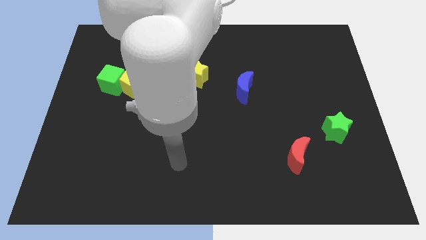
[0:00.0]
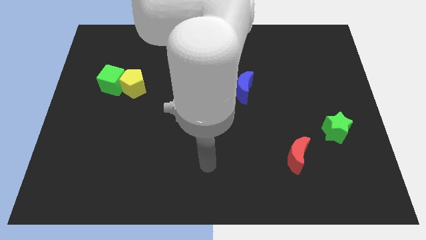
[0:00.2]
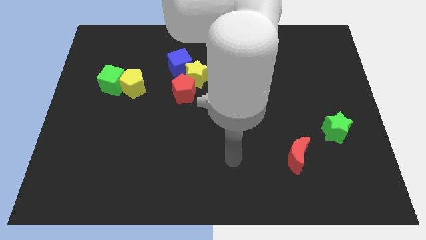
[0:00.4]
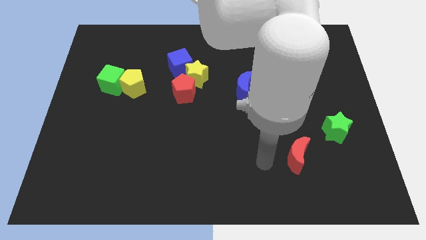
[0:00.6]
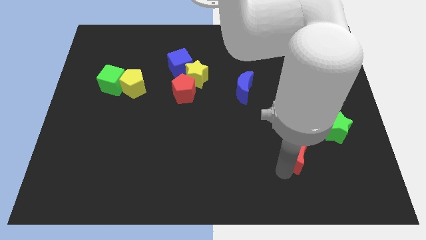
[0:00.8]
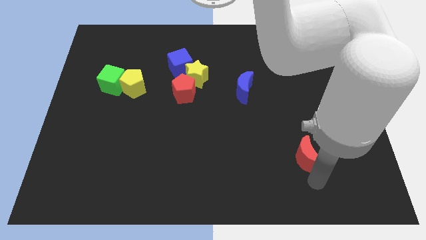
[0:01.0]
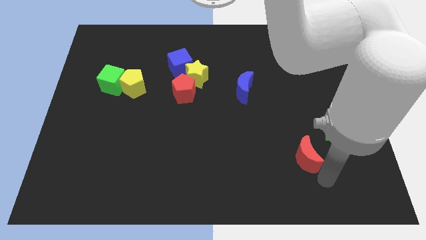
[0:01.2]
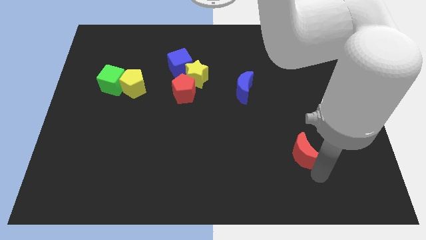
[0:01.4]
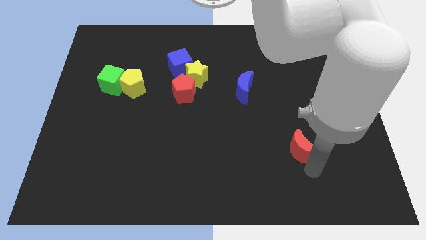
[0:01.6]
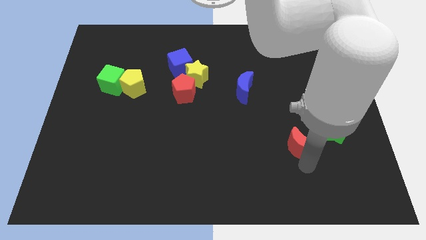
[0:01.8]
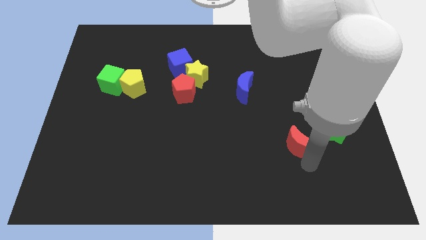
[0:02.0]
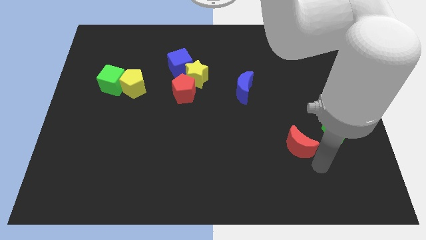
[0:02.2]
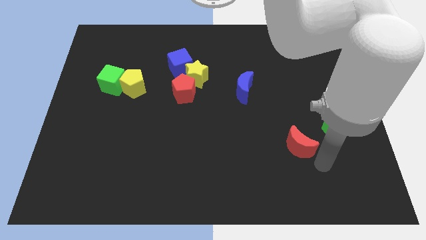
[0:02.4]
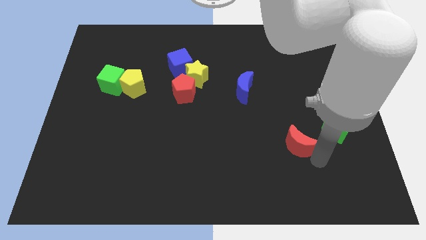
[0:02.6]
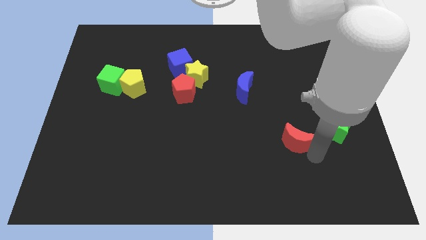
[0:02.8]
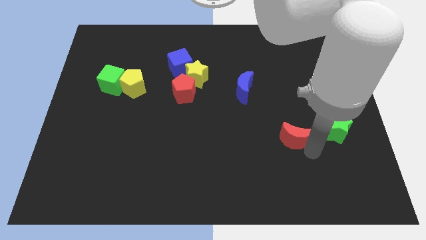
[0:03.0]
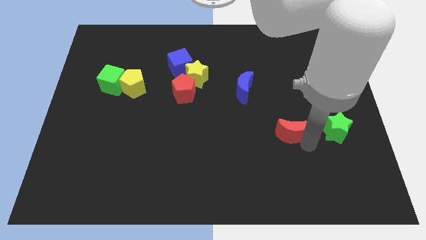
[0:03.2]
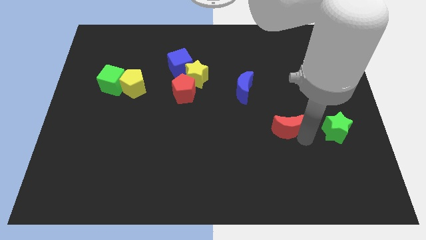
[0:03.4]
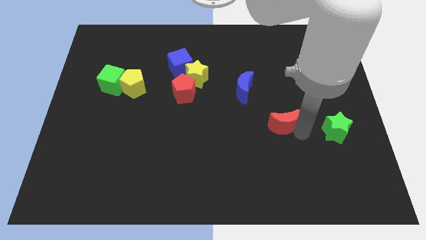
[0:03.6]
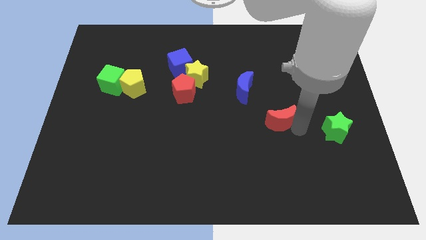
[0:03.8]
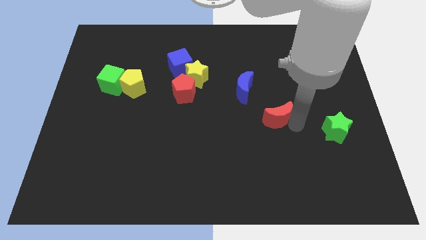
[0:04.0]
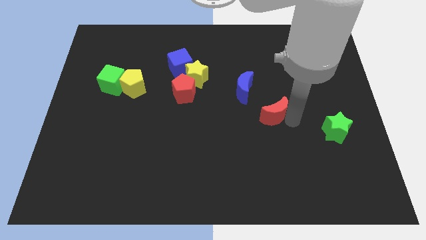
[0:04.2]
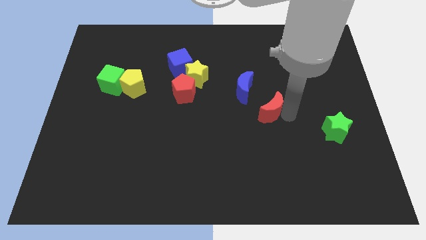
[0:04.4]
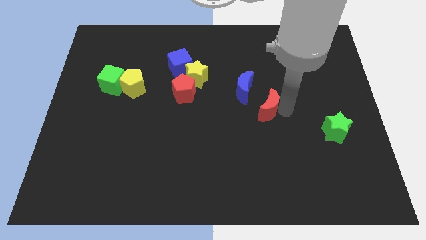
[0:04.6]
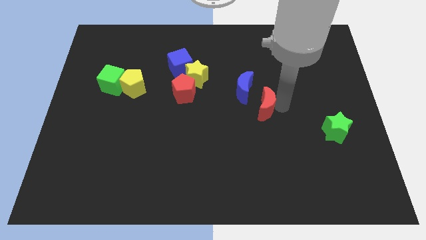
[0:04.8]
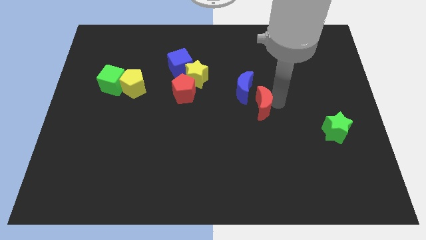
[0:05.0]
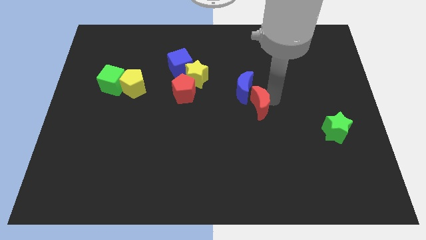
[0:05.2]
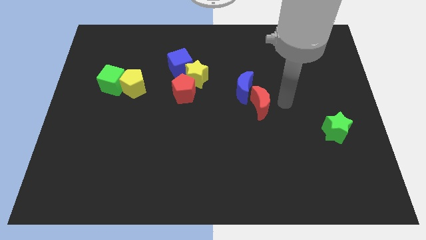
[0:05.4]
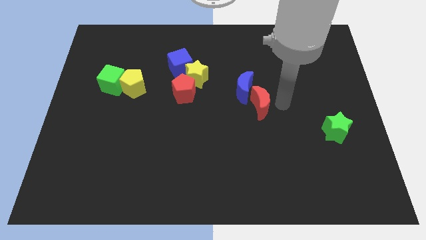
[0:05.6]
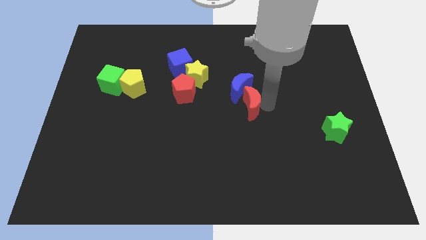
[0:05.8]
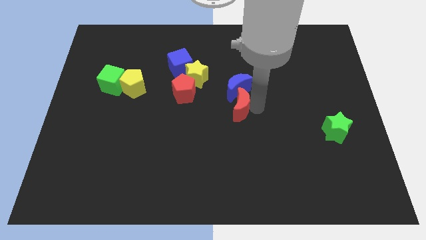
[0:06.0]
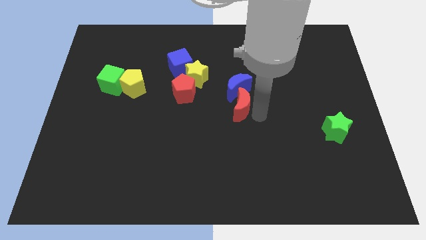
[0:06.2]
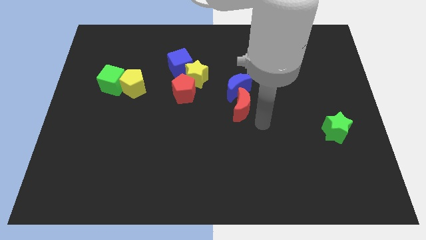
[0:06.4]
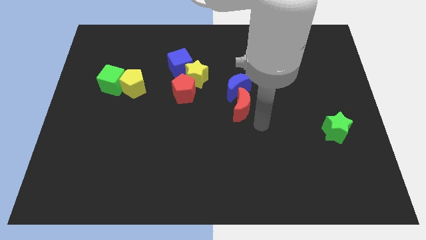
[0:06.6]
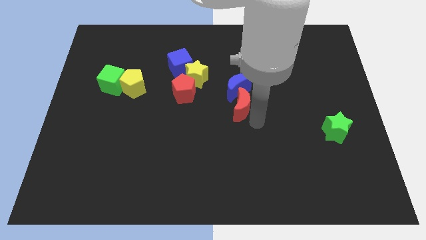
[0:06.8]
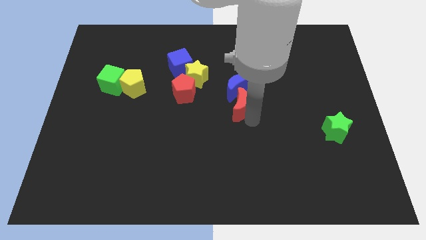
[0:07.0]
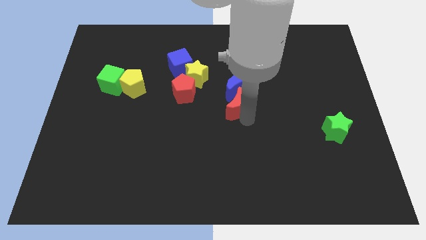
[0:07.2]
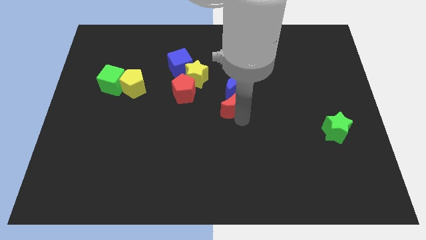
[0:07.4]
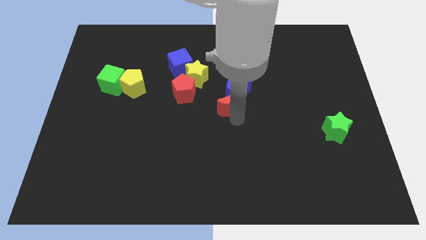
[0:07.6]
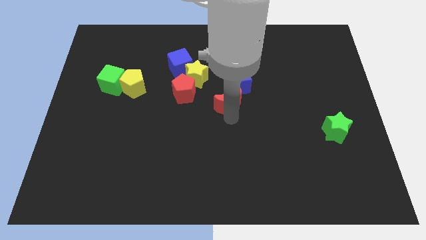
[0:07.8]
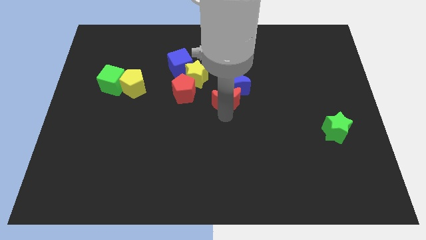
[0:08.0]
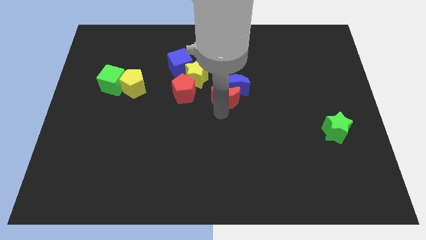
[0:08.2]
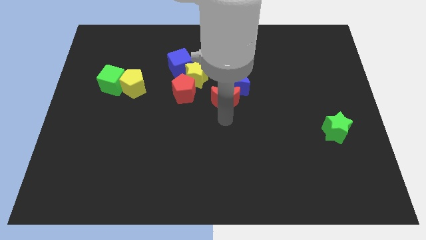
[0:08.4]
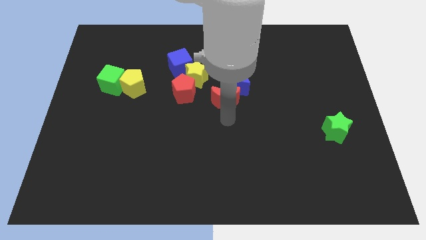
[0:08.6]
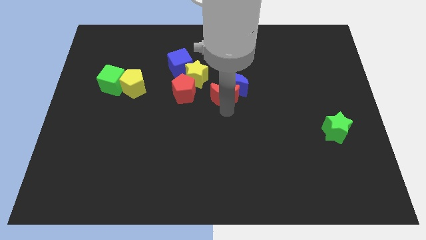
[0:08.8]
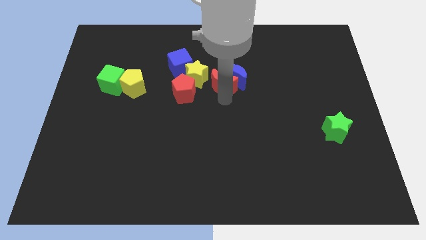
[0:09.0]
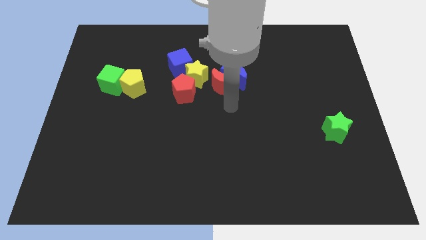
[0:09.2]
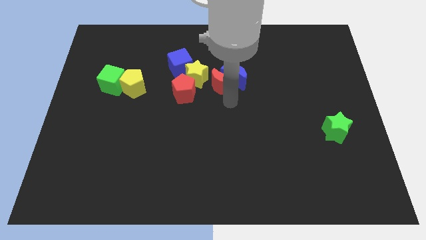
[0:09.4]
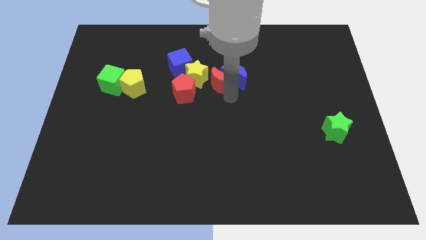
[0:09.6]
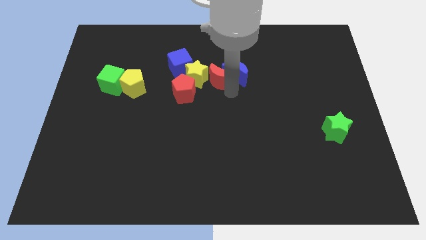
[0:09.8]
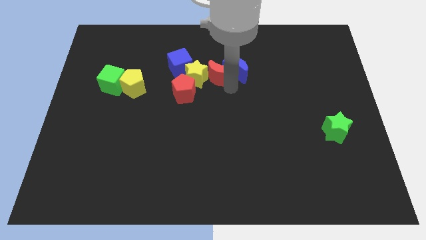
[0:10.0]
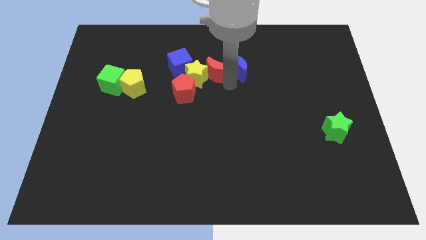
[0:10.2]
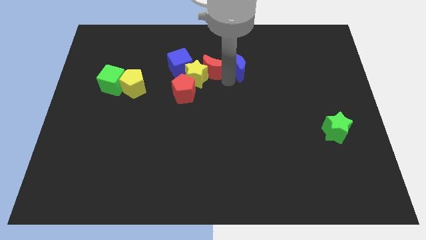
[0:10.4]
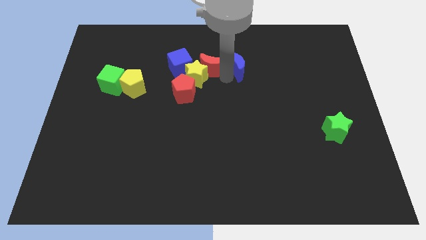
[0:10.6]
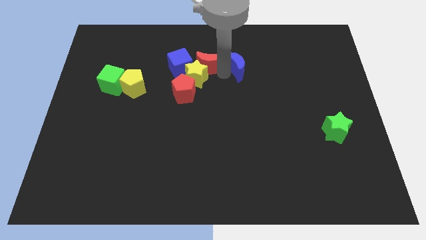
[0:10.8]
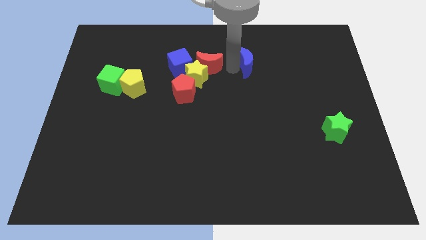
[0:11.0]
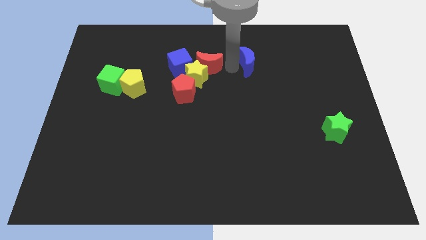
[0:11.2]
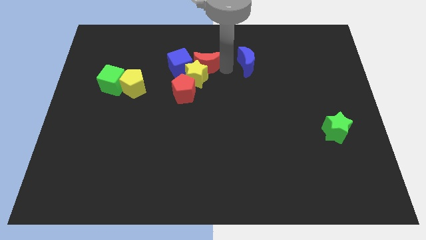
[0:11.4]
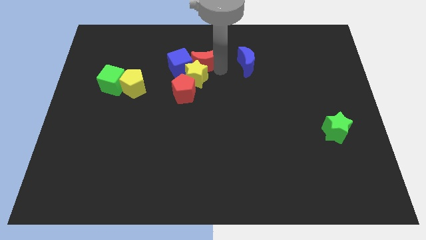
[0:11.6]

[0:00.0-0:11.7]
put the red moon next to the blue cube

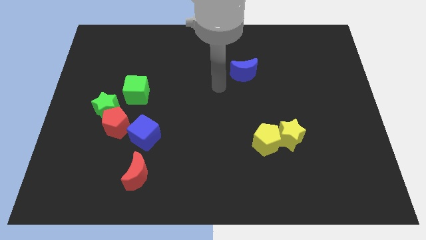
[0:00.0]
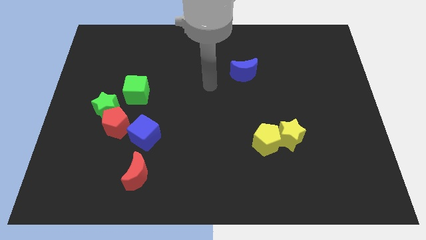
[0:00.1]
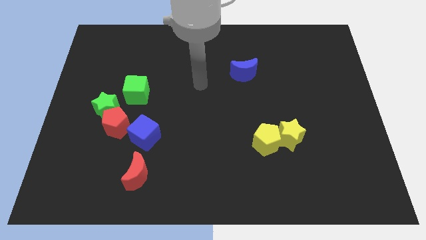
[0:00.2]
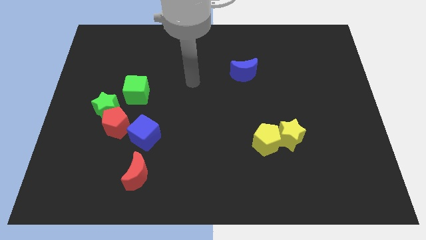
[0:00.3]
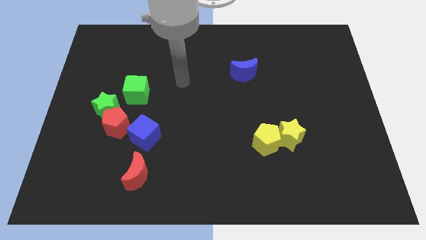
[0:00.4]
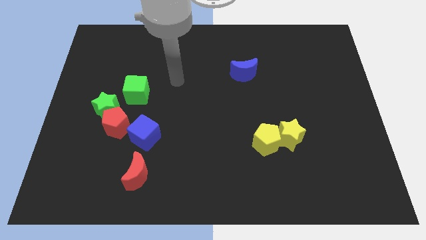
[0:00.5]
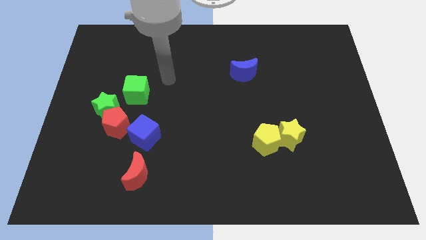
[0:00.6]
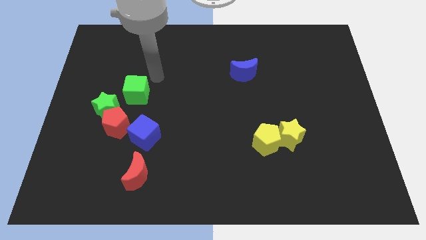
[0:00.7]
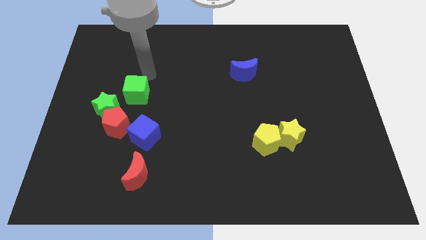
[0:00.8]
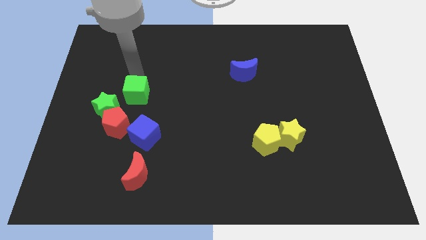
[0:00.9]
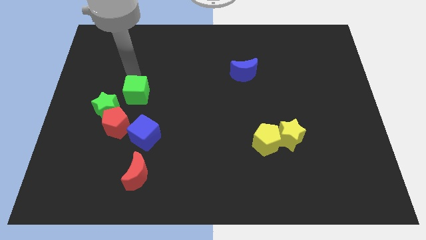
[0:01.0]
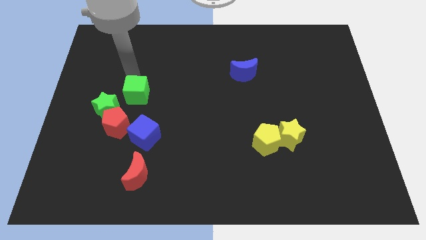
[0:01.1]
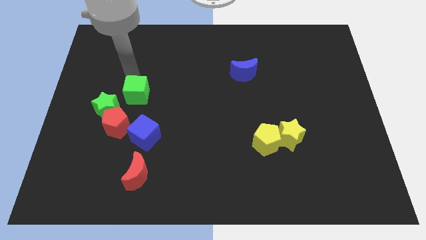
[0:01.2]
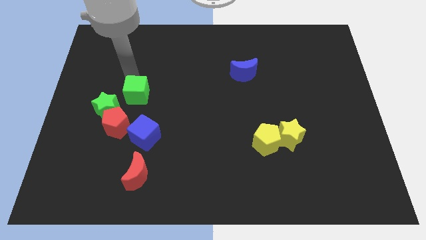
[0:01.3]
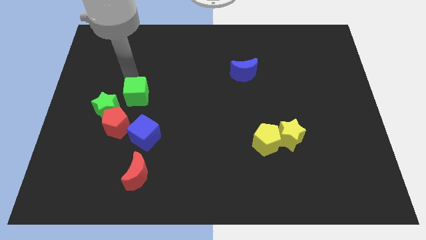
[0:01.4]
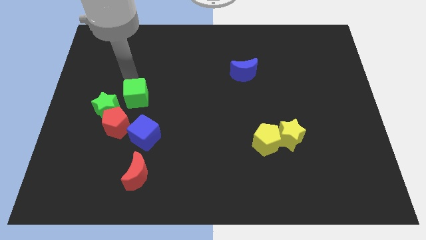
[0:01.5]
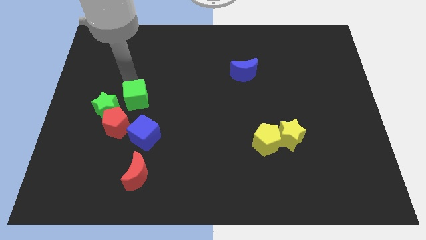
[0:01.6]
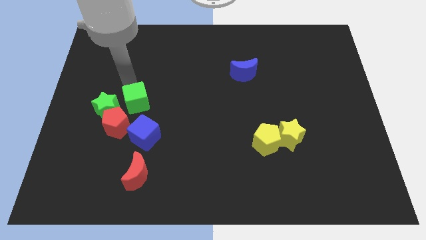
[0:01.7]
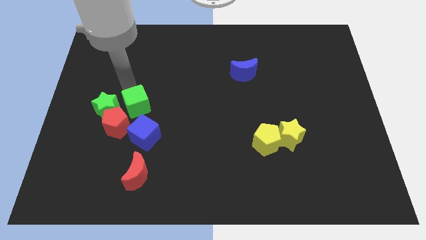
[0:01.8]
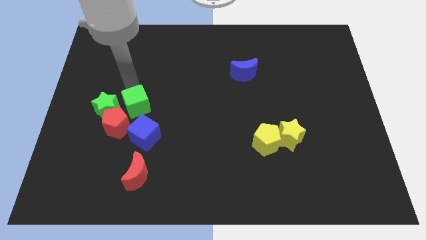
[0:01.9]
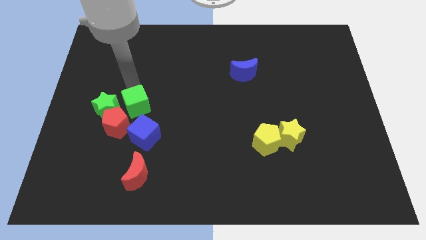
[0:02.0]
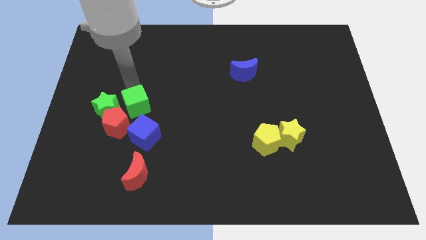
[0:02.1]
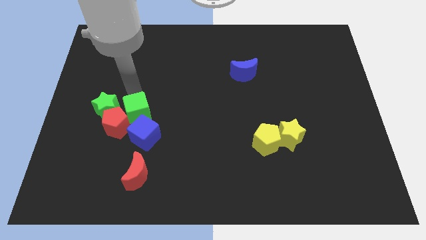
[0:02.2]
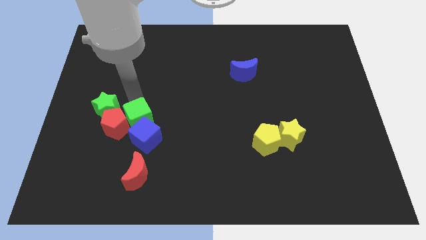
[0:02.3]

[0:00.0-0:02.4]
move the green cube close to the blue cube
